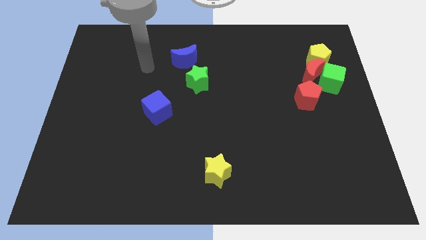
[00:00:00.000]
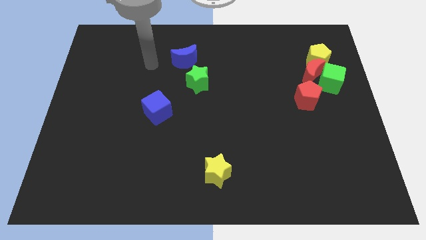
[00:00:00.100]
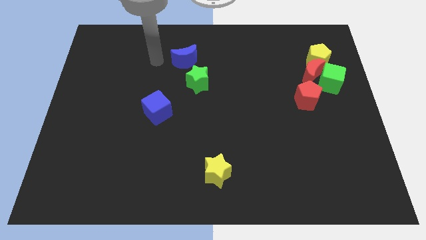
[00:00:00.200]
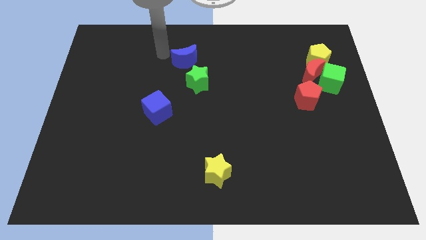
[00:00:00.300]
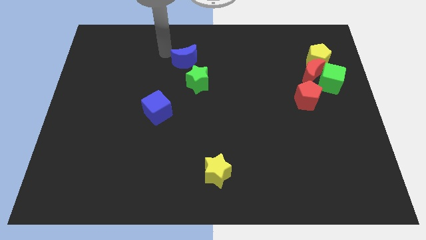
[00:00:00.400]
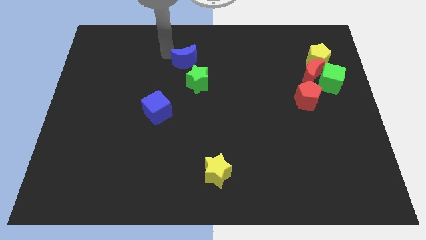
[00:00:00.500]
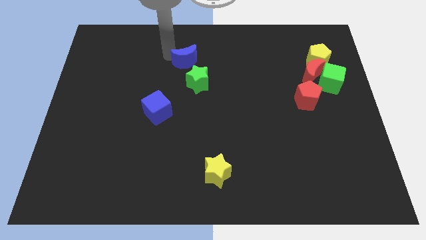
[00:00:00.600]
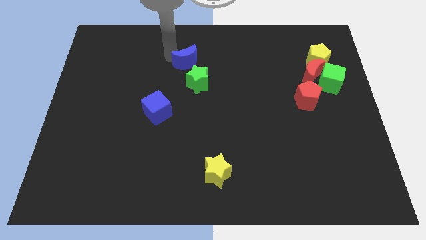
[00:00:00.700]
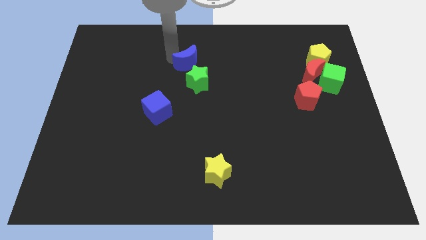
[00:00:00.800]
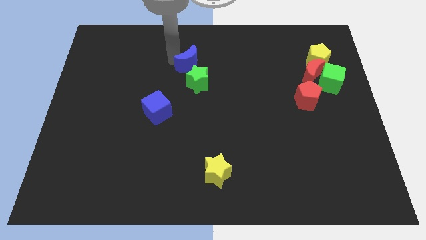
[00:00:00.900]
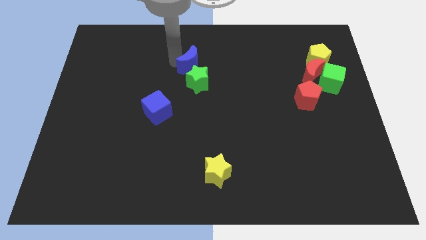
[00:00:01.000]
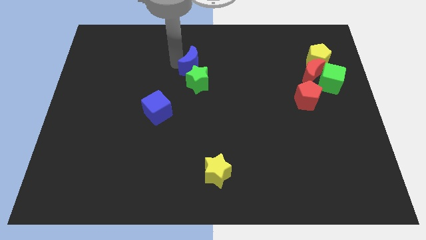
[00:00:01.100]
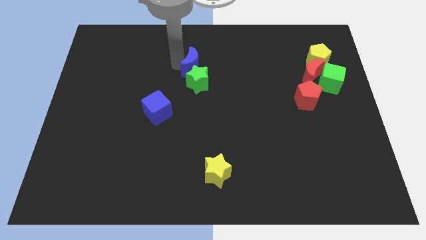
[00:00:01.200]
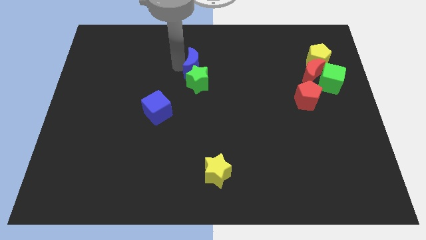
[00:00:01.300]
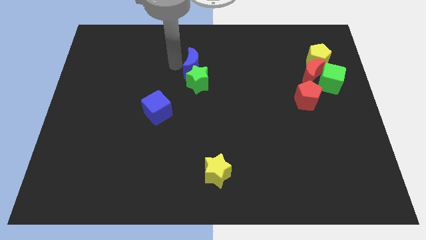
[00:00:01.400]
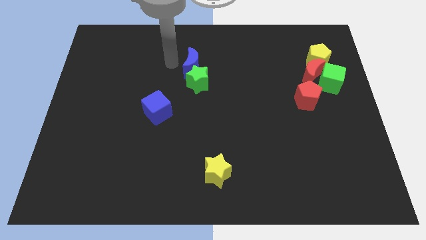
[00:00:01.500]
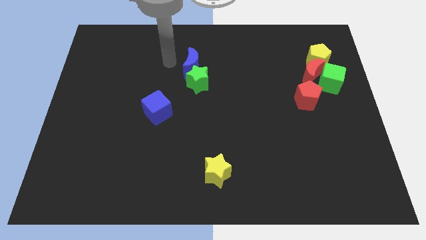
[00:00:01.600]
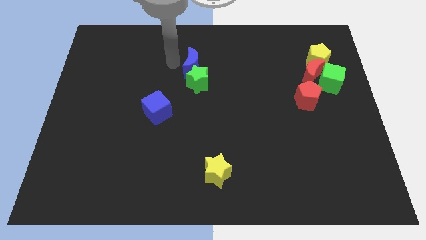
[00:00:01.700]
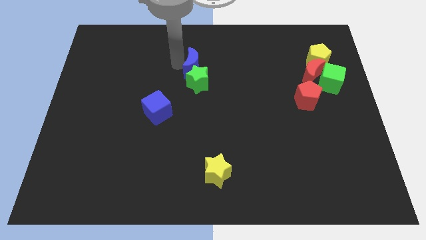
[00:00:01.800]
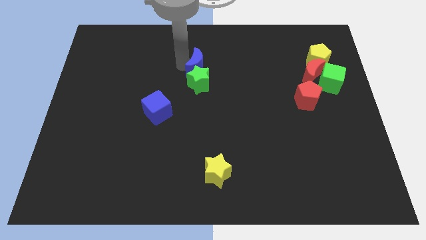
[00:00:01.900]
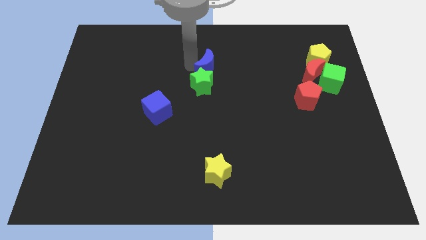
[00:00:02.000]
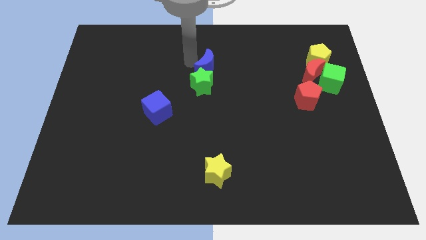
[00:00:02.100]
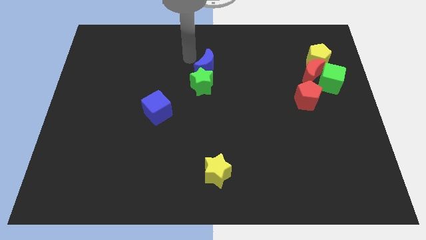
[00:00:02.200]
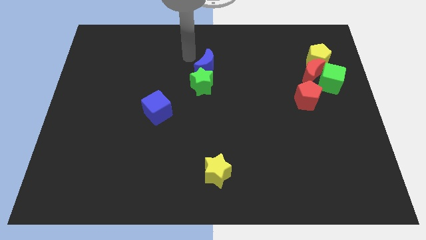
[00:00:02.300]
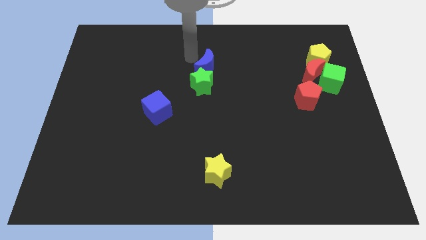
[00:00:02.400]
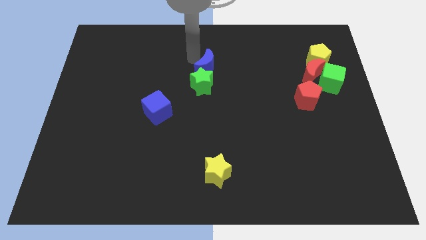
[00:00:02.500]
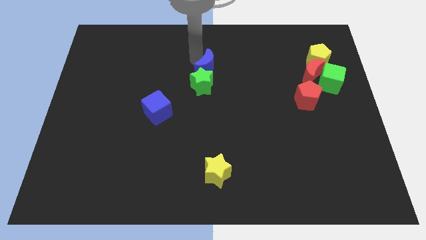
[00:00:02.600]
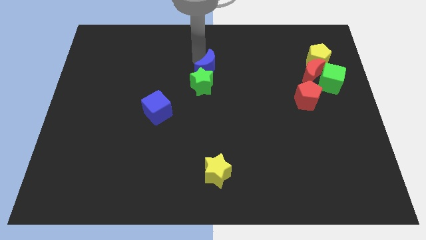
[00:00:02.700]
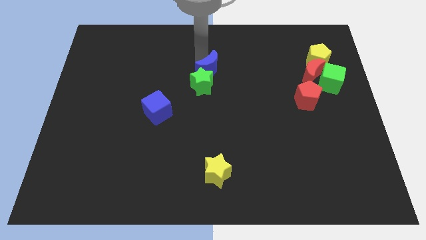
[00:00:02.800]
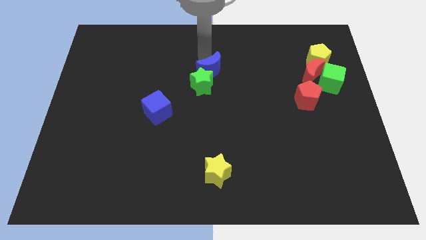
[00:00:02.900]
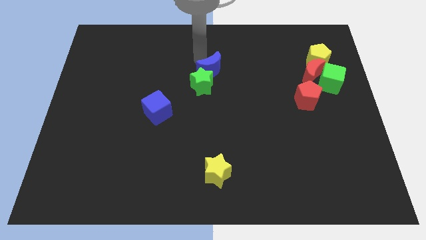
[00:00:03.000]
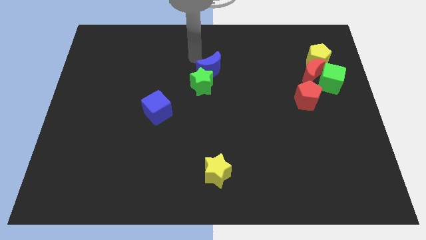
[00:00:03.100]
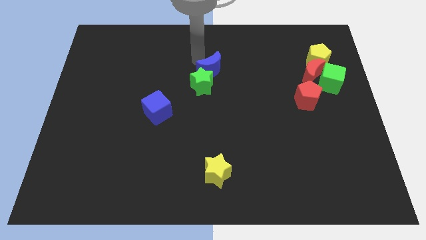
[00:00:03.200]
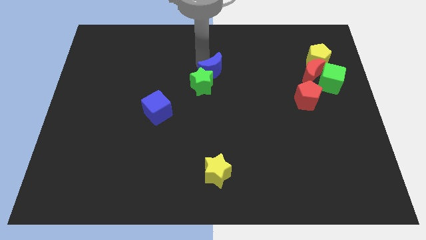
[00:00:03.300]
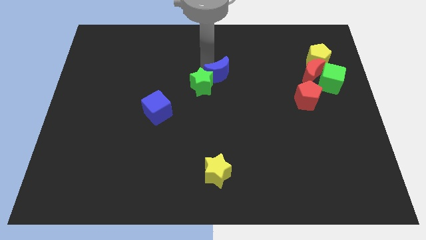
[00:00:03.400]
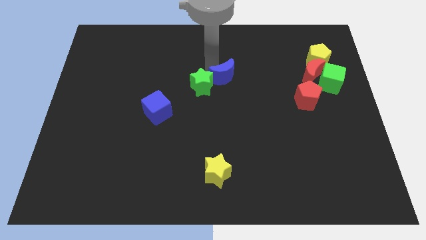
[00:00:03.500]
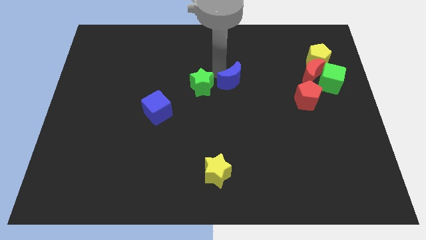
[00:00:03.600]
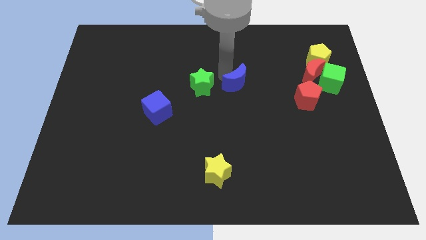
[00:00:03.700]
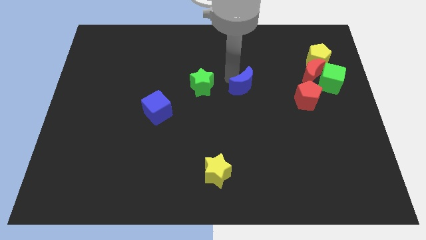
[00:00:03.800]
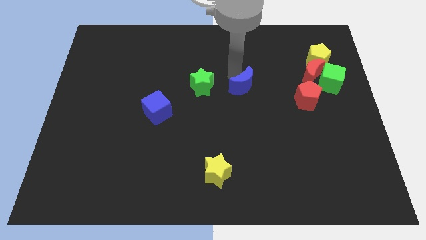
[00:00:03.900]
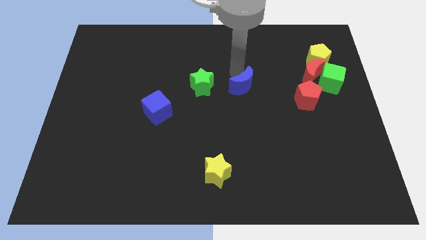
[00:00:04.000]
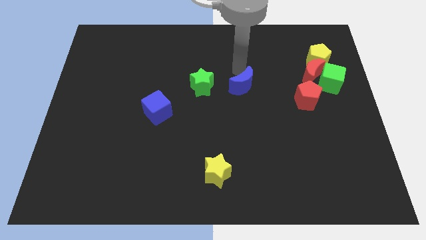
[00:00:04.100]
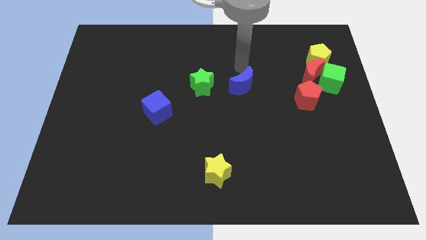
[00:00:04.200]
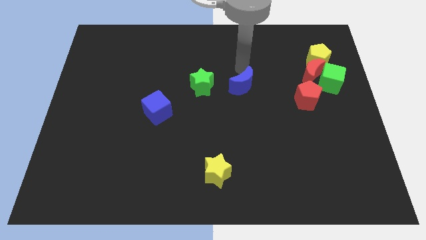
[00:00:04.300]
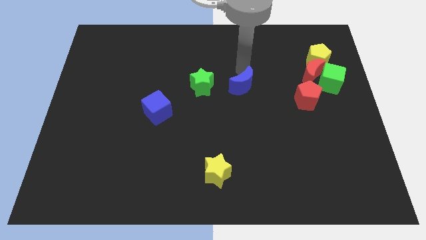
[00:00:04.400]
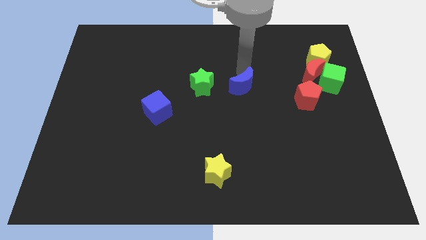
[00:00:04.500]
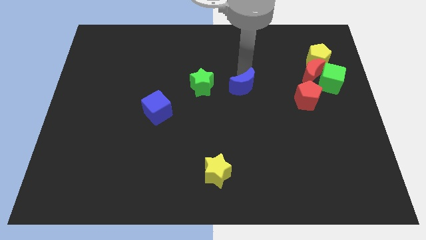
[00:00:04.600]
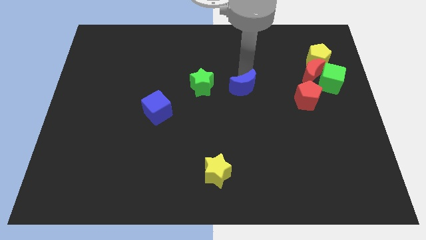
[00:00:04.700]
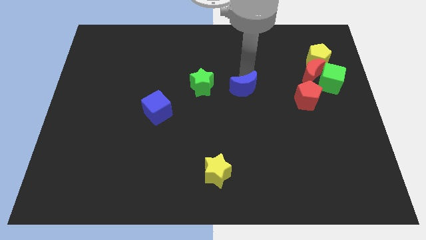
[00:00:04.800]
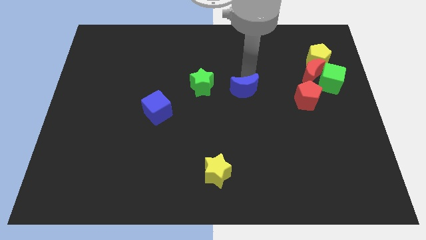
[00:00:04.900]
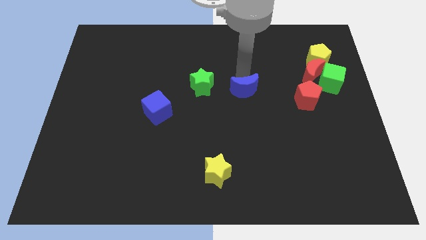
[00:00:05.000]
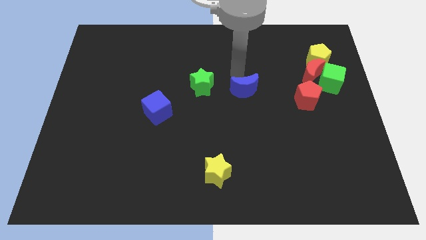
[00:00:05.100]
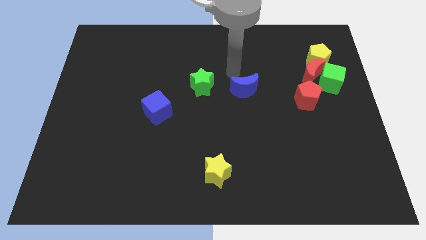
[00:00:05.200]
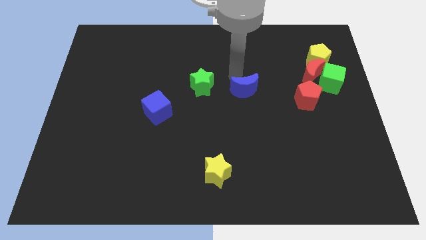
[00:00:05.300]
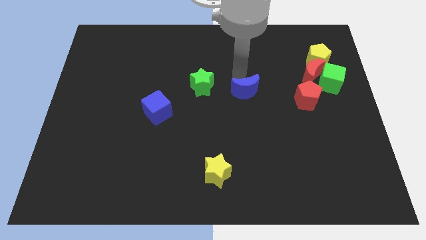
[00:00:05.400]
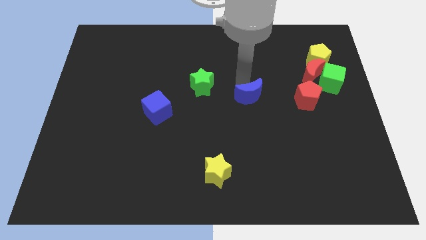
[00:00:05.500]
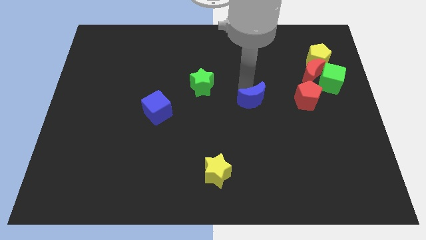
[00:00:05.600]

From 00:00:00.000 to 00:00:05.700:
move the blue moon downwards and to the right

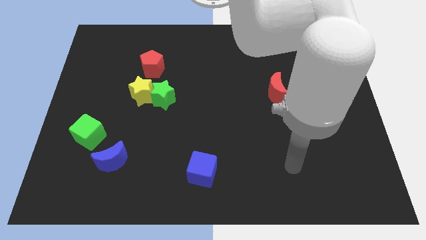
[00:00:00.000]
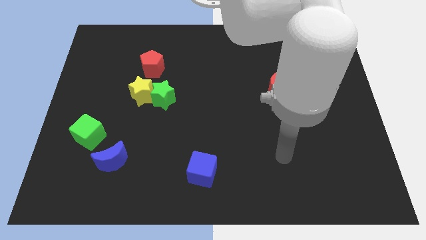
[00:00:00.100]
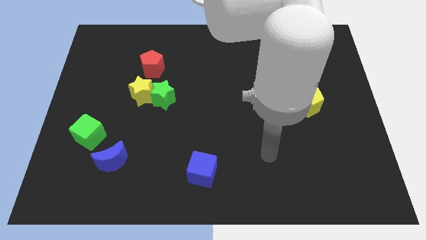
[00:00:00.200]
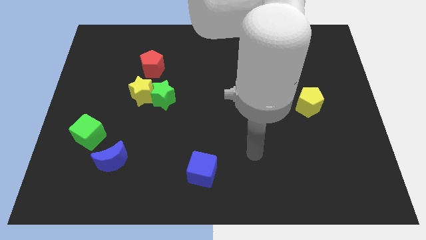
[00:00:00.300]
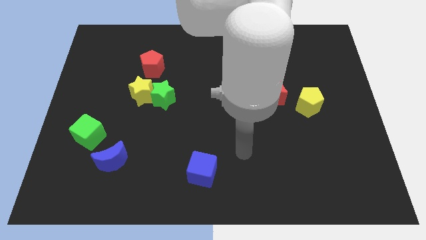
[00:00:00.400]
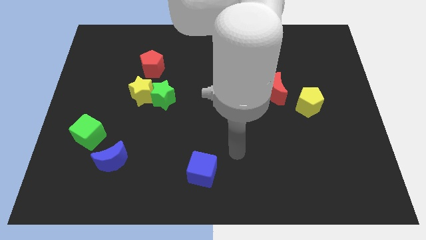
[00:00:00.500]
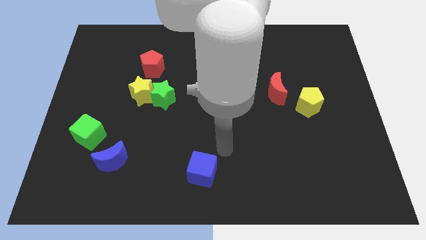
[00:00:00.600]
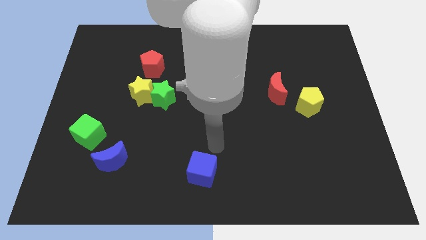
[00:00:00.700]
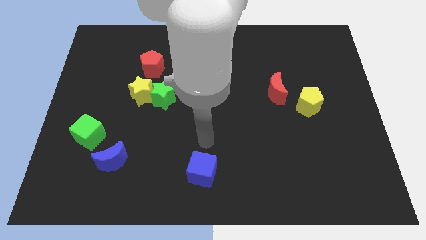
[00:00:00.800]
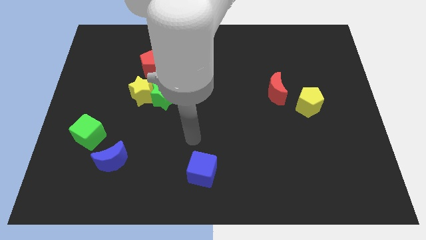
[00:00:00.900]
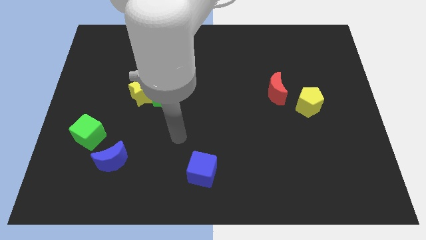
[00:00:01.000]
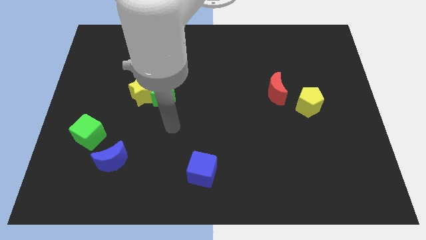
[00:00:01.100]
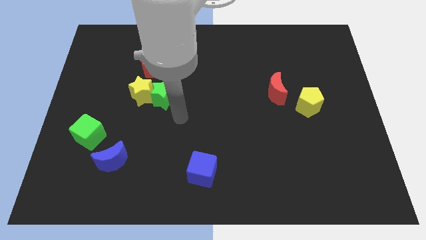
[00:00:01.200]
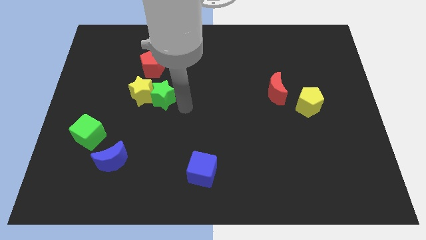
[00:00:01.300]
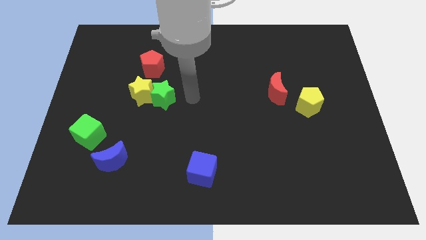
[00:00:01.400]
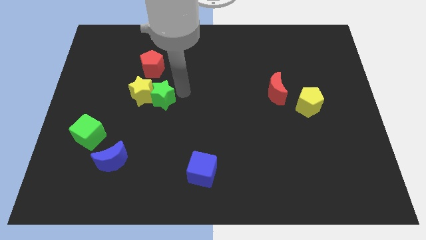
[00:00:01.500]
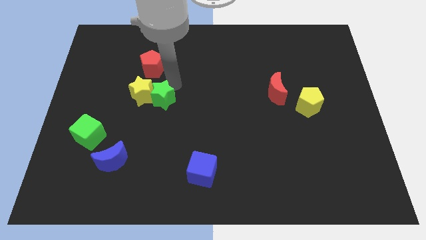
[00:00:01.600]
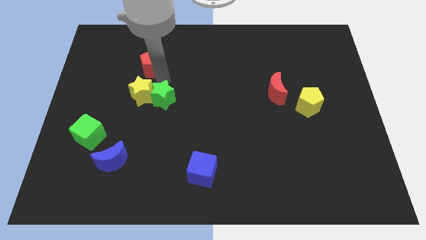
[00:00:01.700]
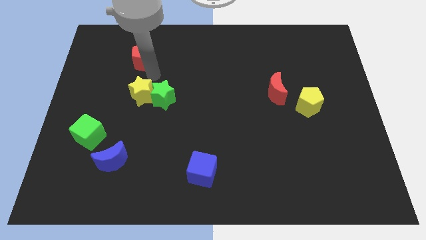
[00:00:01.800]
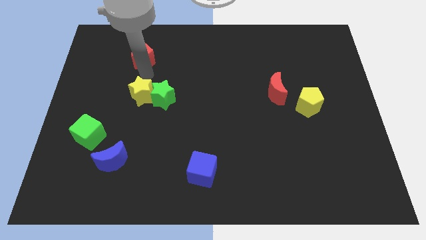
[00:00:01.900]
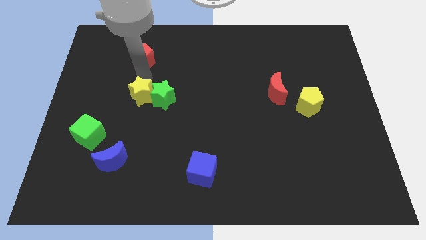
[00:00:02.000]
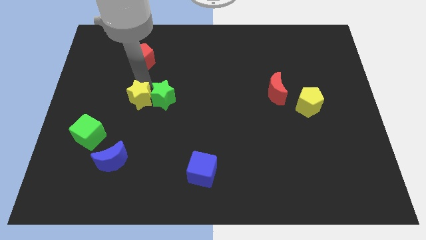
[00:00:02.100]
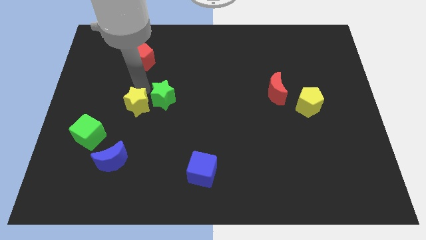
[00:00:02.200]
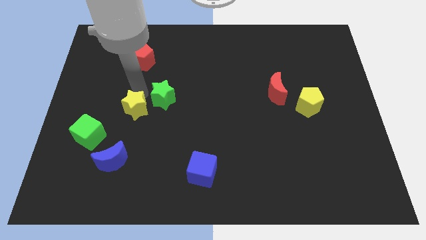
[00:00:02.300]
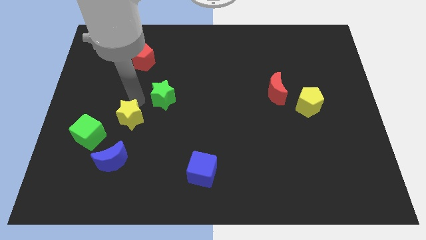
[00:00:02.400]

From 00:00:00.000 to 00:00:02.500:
move the yellow star a bit down
